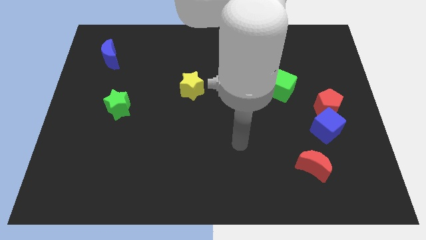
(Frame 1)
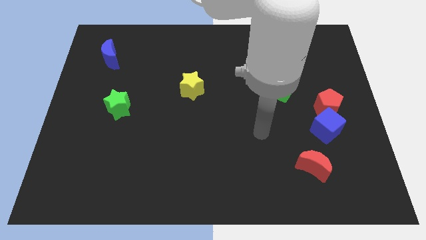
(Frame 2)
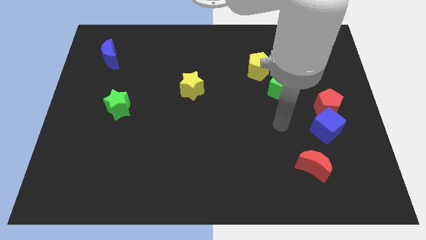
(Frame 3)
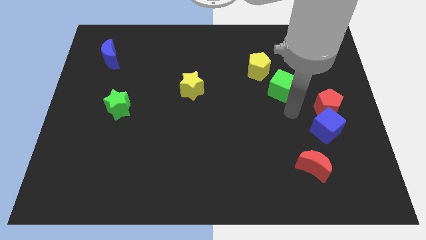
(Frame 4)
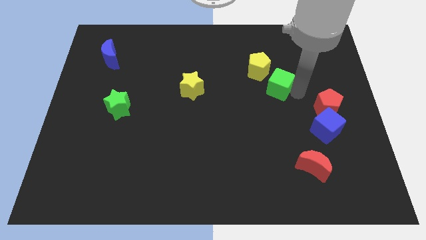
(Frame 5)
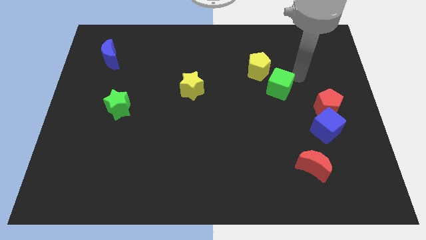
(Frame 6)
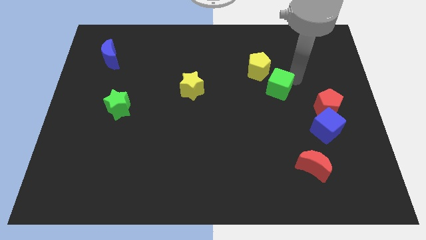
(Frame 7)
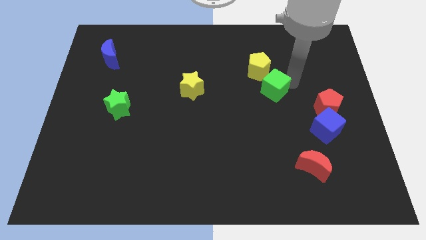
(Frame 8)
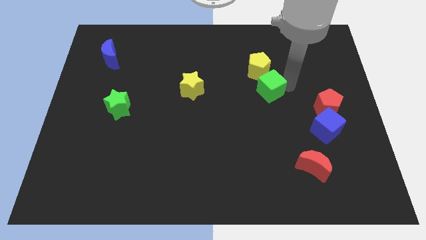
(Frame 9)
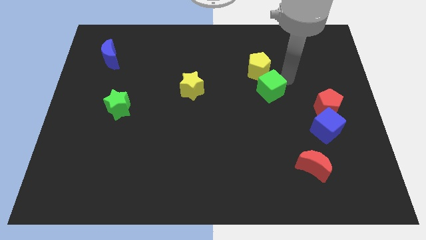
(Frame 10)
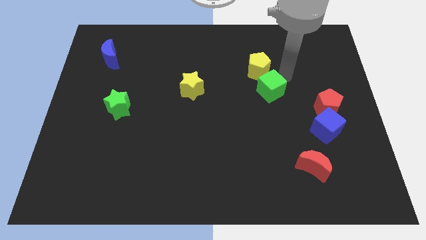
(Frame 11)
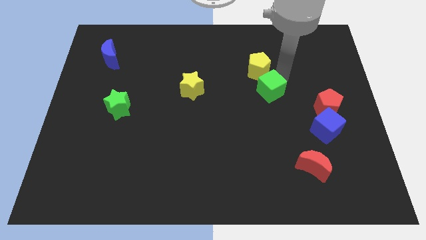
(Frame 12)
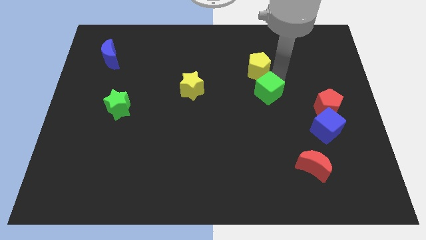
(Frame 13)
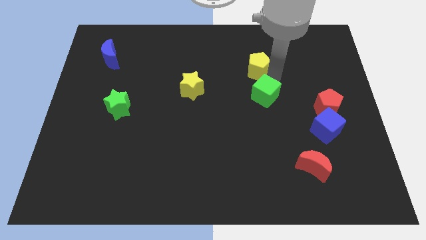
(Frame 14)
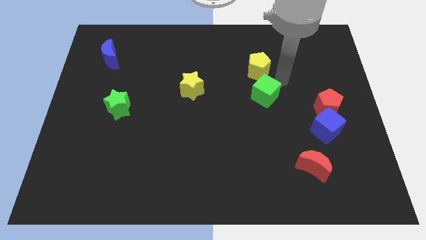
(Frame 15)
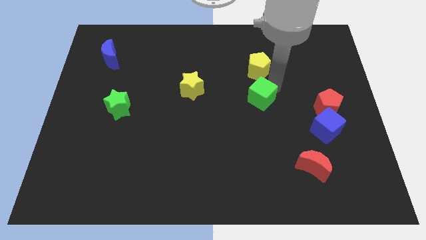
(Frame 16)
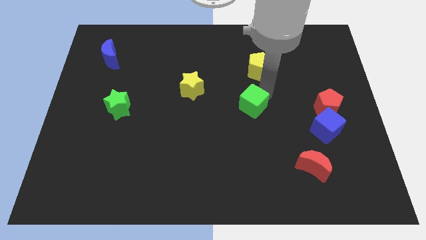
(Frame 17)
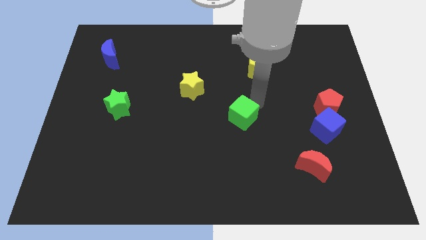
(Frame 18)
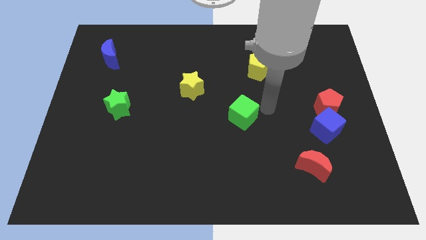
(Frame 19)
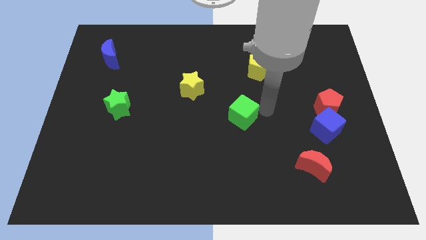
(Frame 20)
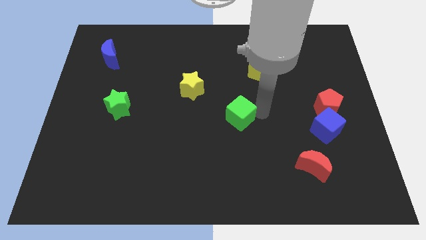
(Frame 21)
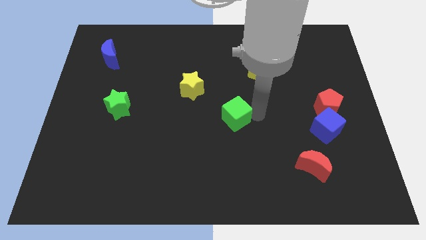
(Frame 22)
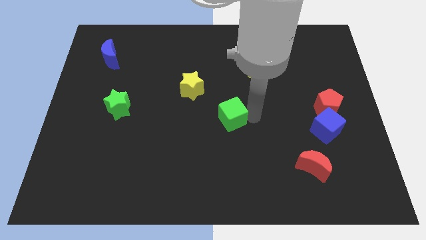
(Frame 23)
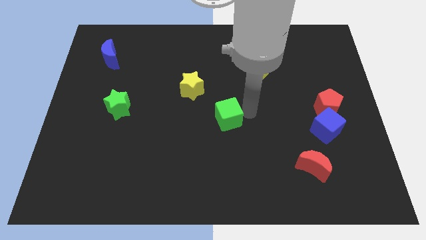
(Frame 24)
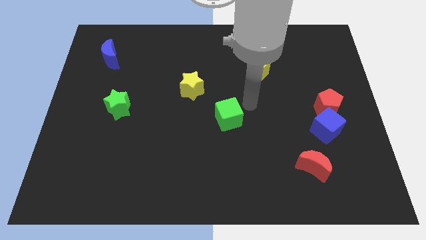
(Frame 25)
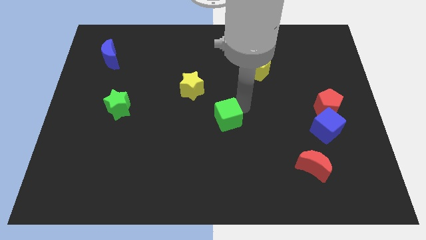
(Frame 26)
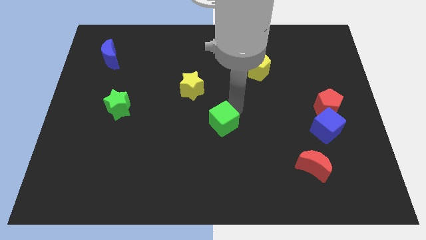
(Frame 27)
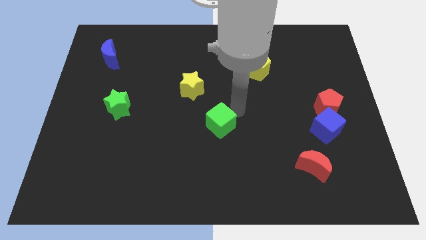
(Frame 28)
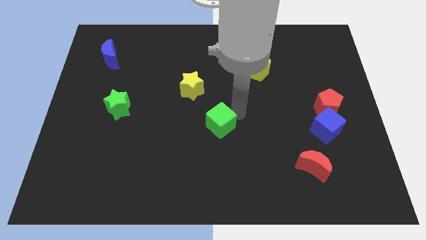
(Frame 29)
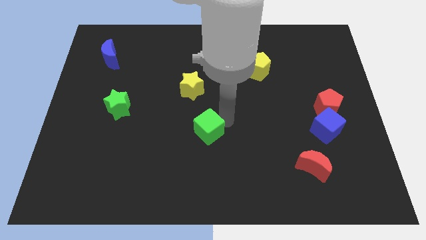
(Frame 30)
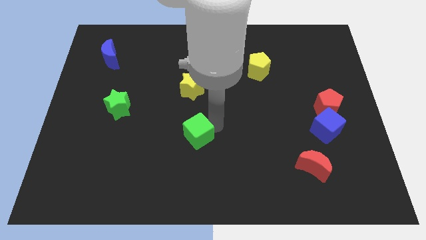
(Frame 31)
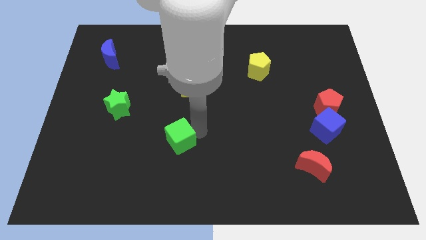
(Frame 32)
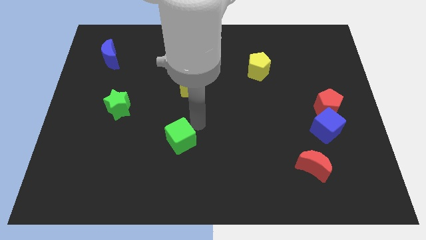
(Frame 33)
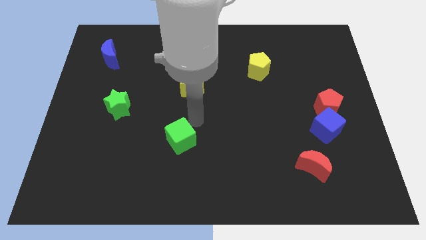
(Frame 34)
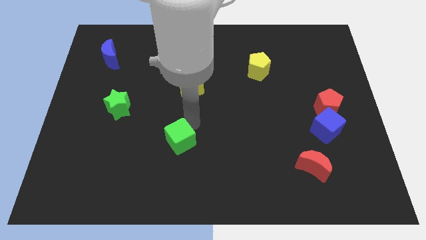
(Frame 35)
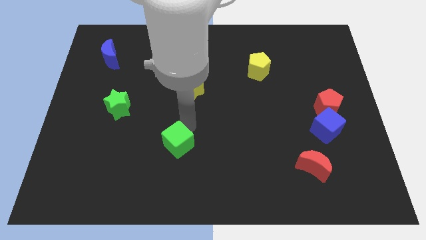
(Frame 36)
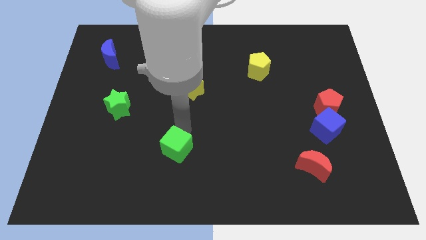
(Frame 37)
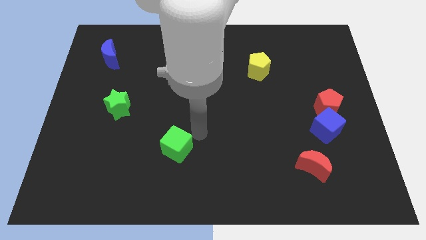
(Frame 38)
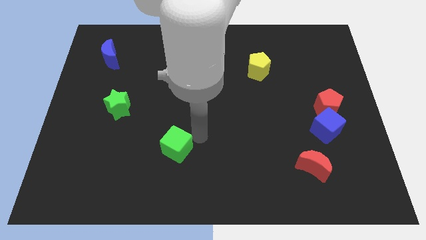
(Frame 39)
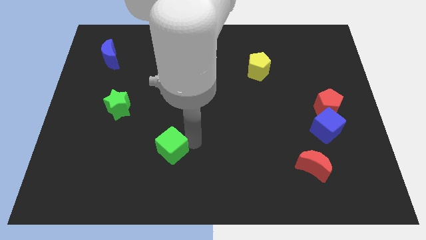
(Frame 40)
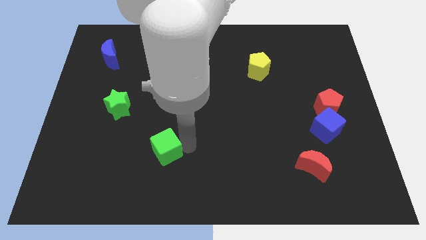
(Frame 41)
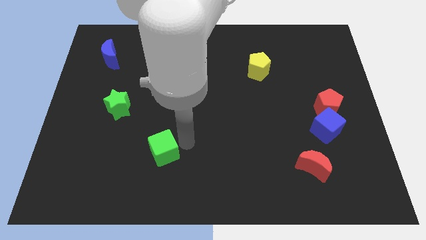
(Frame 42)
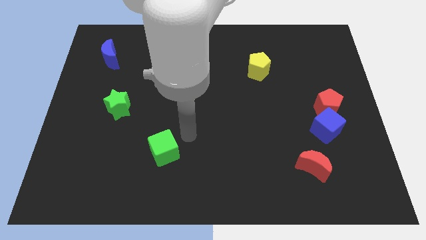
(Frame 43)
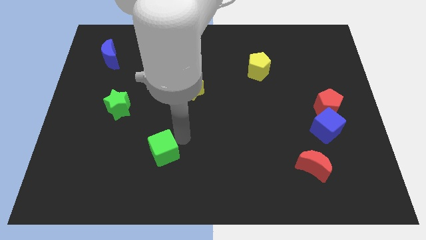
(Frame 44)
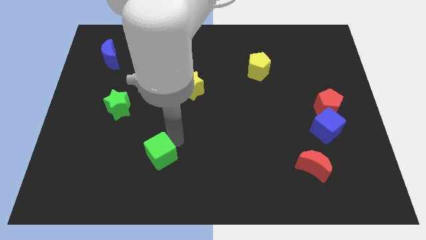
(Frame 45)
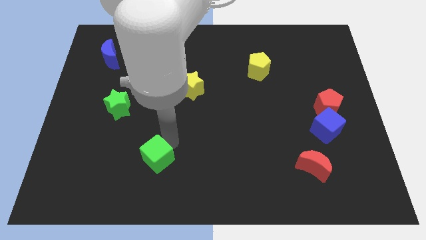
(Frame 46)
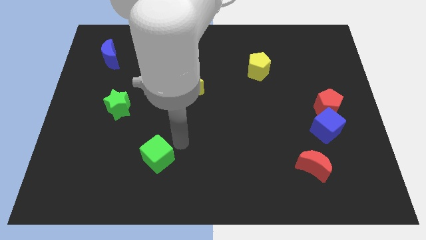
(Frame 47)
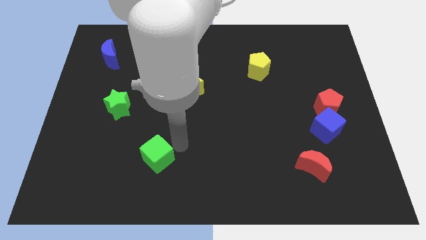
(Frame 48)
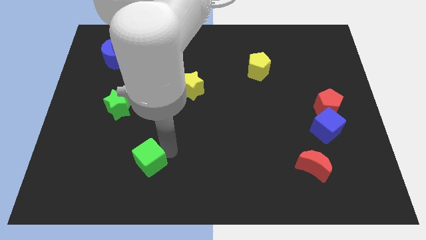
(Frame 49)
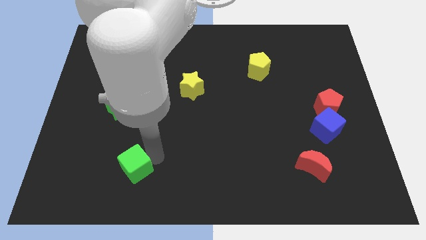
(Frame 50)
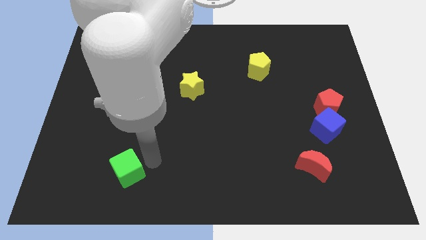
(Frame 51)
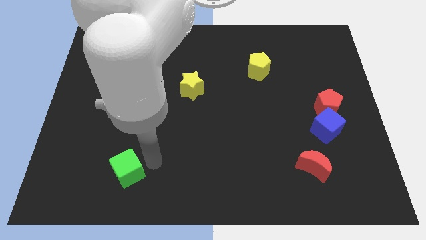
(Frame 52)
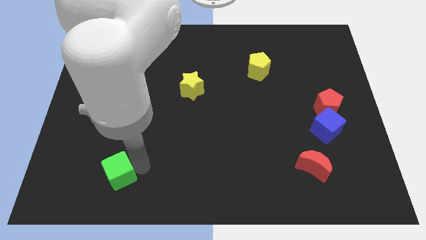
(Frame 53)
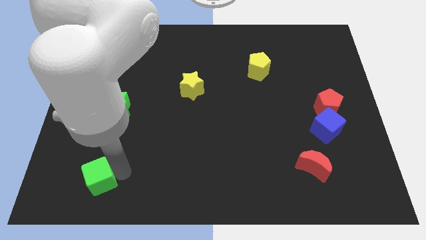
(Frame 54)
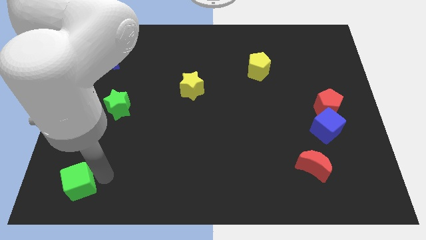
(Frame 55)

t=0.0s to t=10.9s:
put the green cube to the bottom left of the board

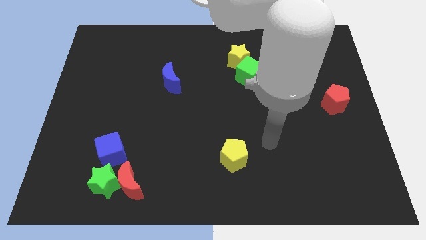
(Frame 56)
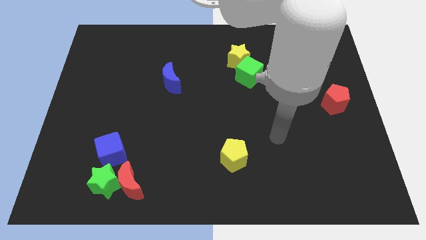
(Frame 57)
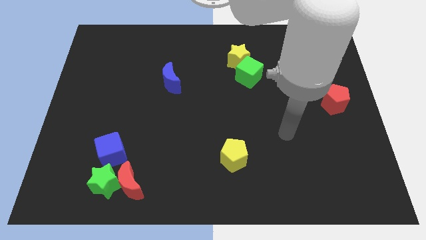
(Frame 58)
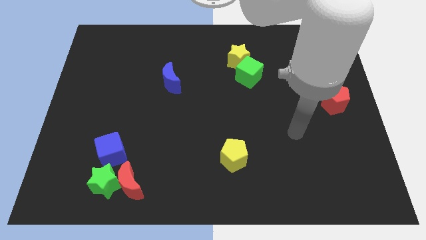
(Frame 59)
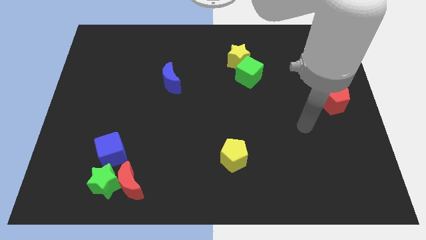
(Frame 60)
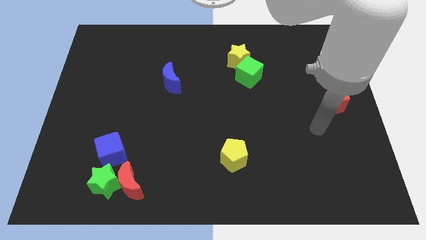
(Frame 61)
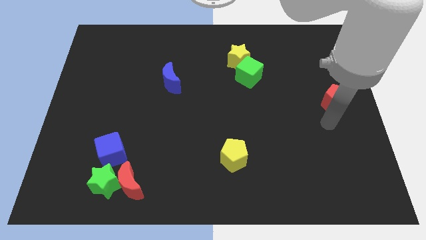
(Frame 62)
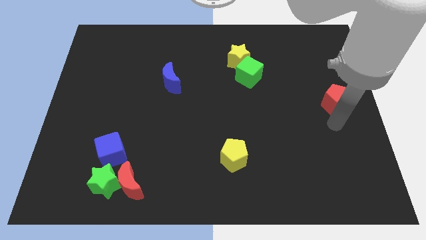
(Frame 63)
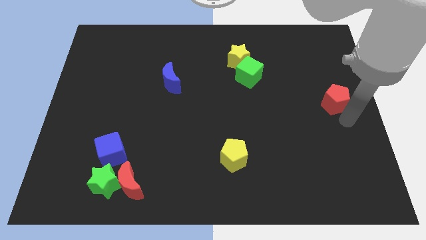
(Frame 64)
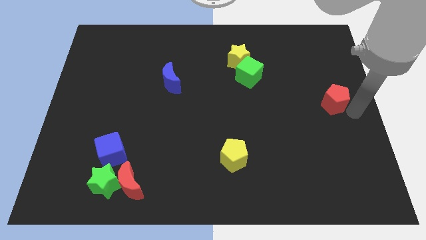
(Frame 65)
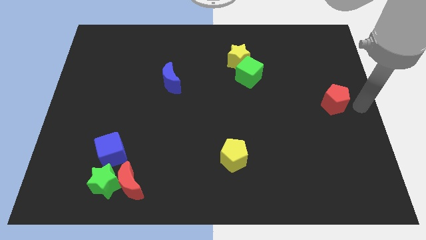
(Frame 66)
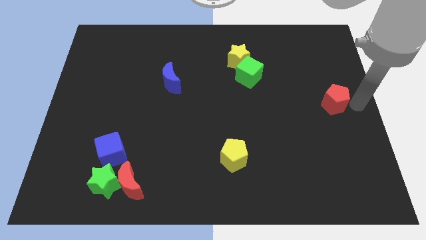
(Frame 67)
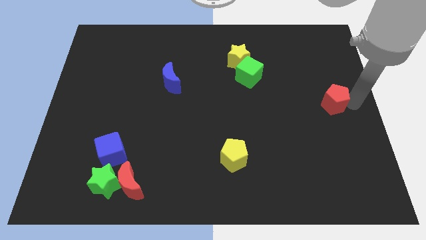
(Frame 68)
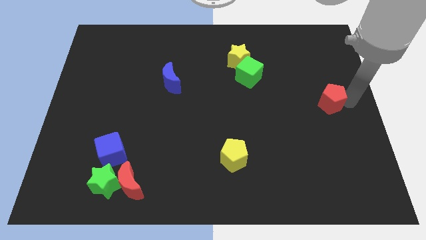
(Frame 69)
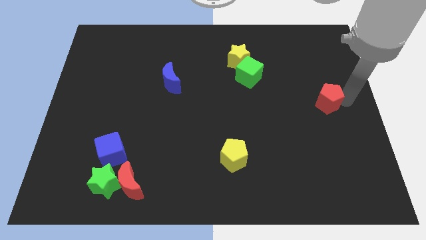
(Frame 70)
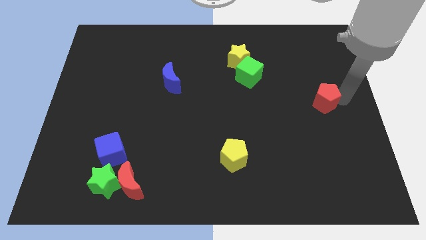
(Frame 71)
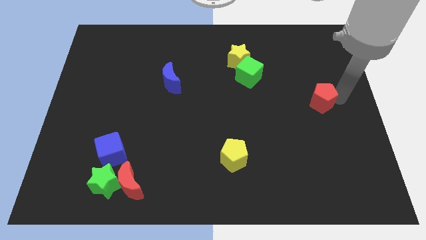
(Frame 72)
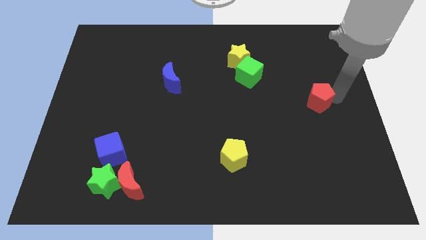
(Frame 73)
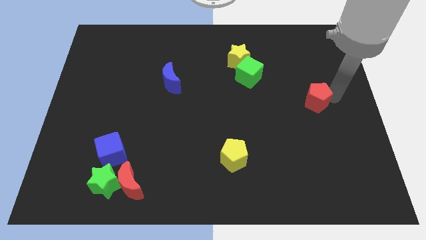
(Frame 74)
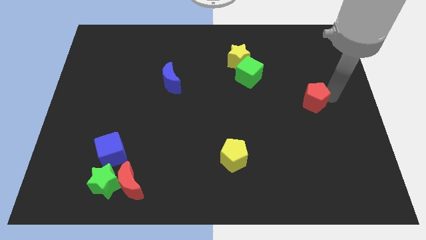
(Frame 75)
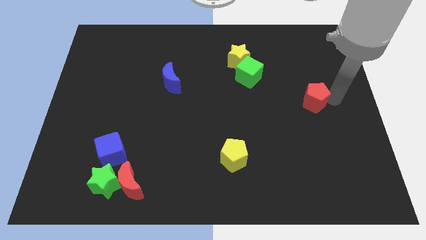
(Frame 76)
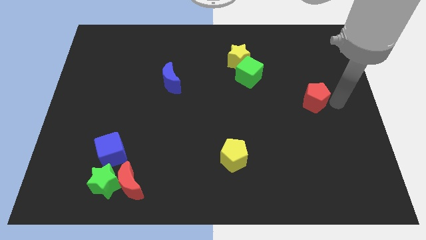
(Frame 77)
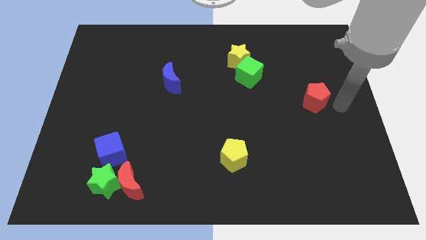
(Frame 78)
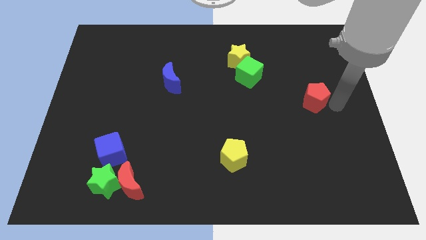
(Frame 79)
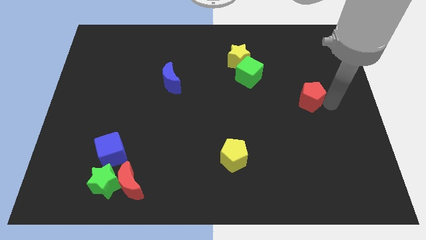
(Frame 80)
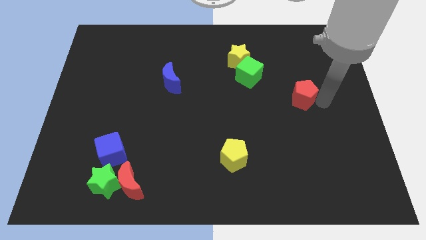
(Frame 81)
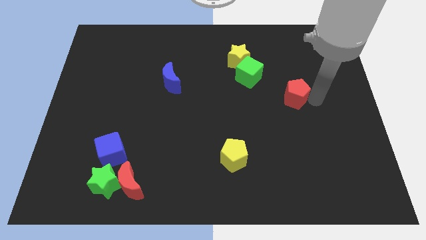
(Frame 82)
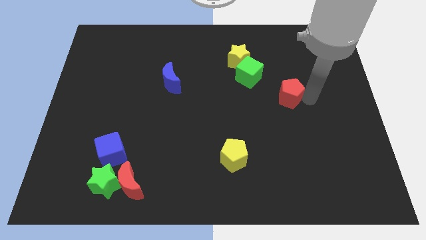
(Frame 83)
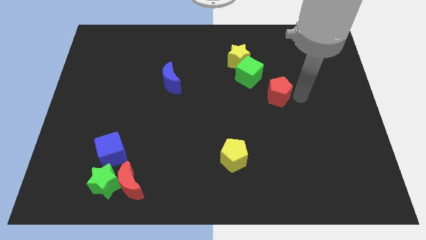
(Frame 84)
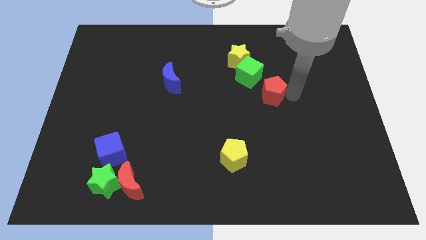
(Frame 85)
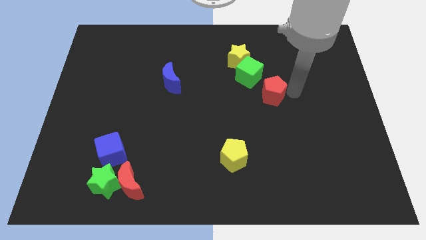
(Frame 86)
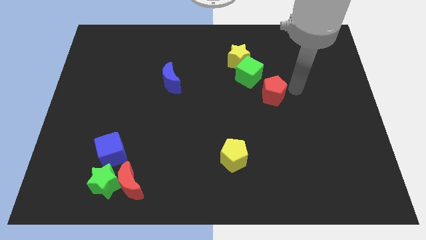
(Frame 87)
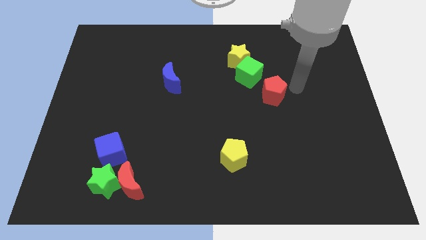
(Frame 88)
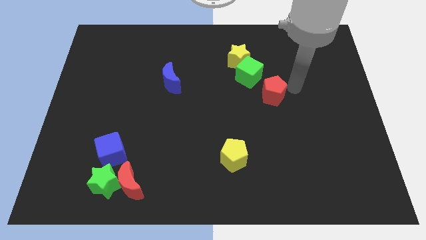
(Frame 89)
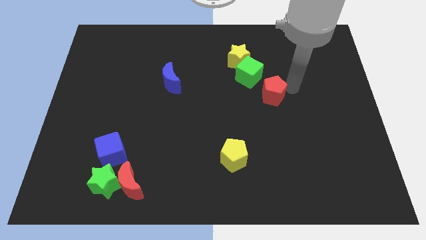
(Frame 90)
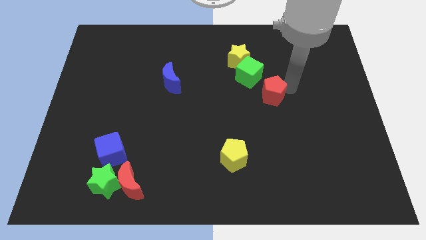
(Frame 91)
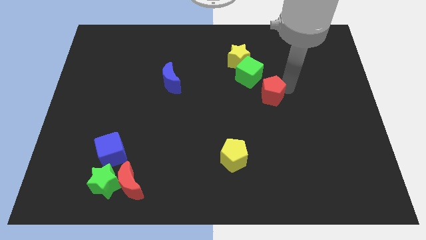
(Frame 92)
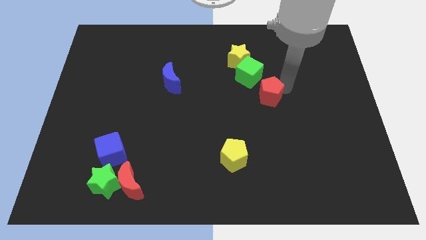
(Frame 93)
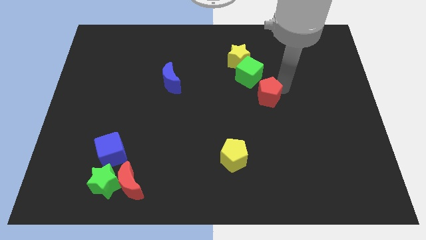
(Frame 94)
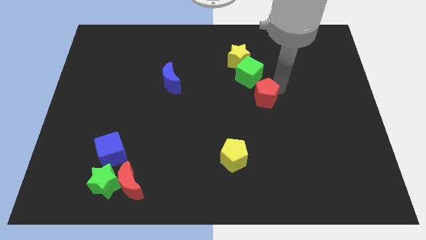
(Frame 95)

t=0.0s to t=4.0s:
slide the red pentagon to the middle
